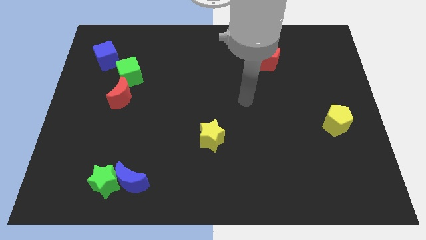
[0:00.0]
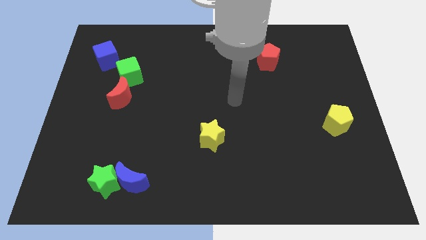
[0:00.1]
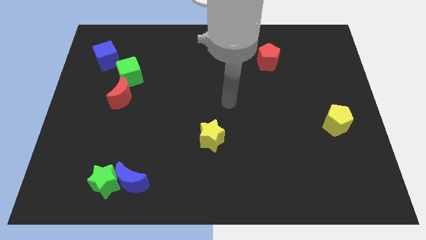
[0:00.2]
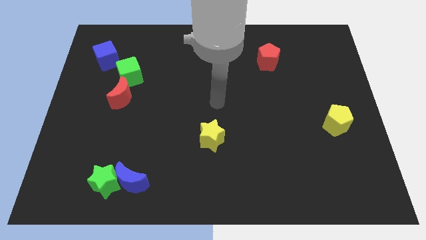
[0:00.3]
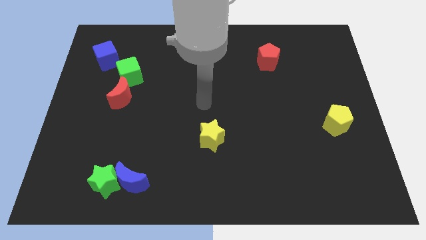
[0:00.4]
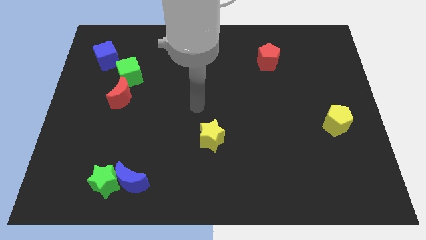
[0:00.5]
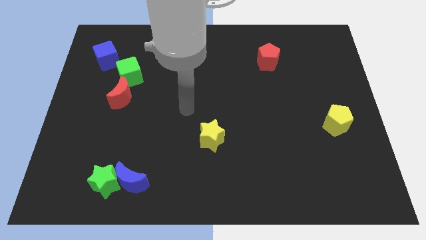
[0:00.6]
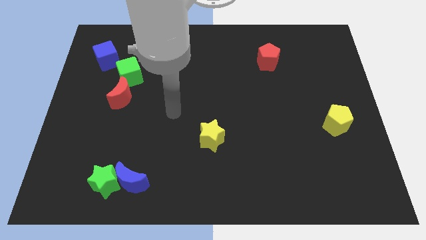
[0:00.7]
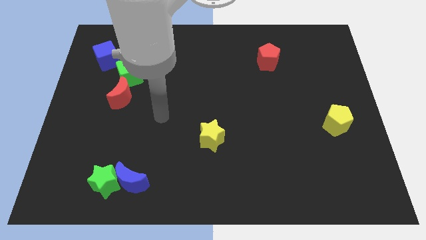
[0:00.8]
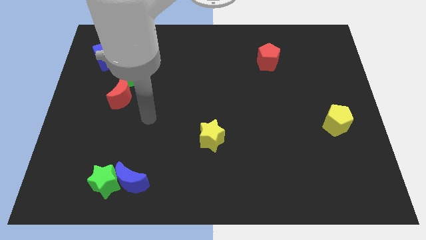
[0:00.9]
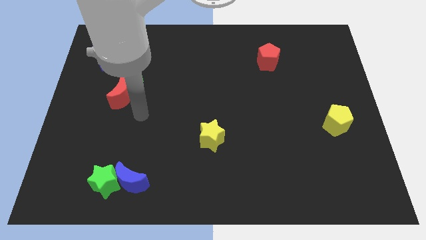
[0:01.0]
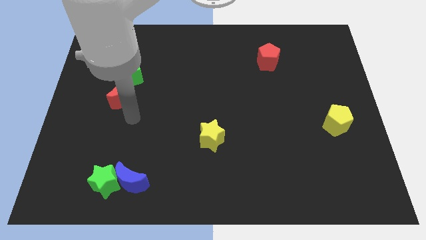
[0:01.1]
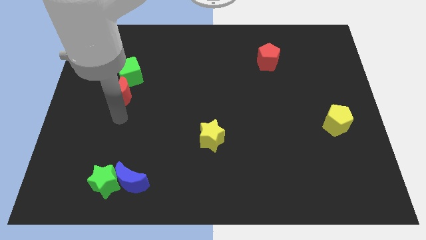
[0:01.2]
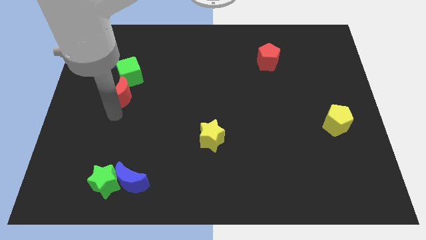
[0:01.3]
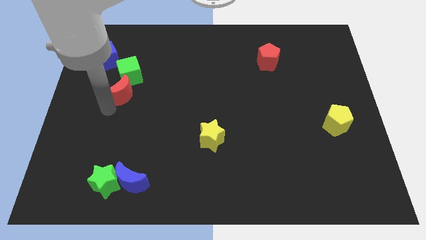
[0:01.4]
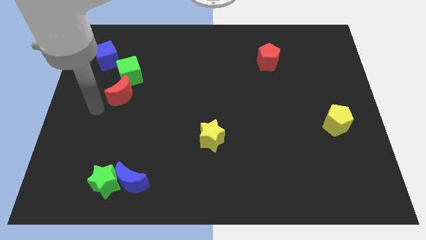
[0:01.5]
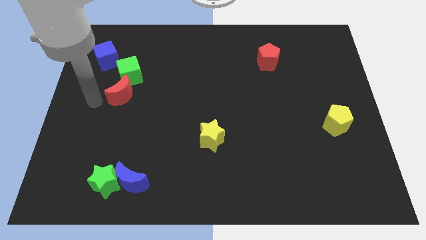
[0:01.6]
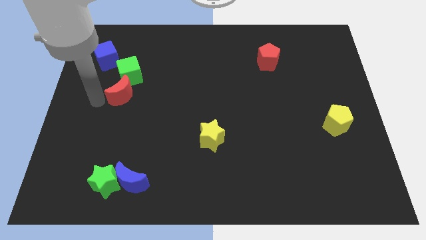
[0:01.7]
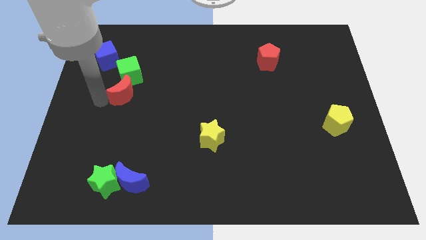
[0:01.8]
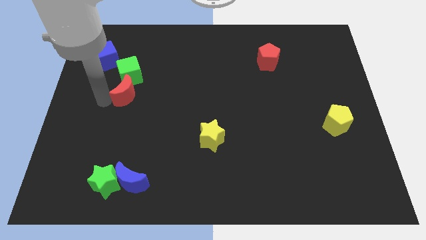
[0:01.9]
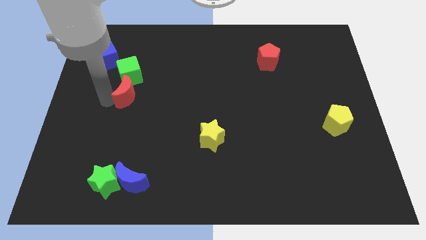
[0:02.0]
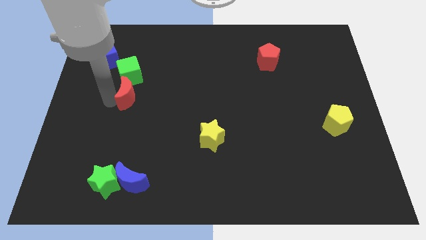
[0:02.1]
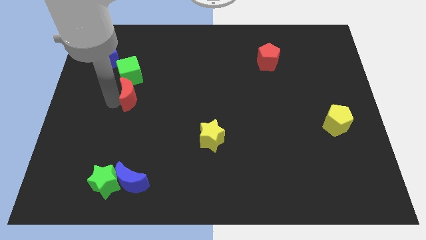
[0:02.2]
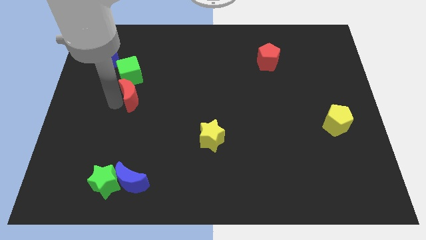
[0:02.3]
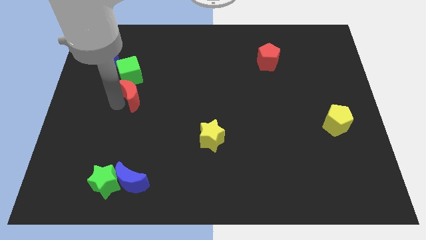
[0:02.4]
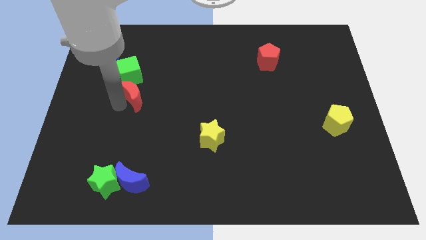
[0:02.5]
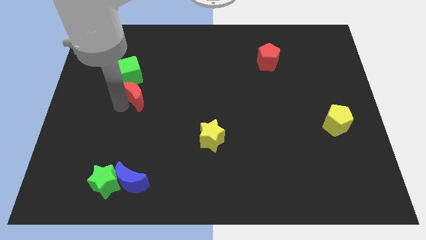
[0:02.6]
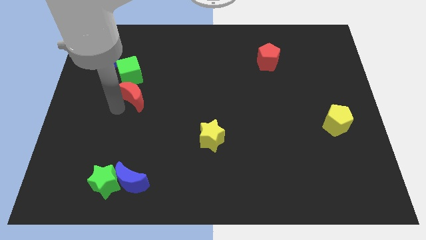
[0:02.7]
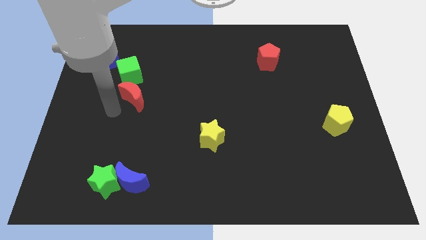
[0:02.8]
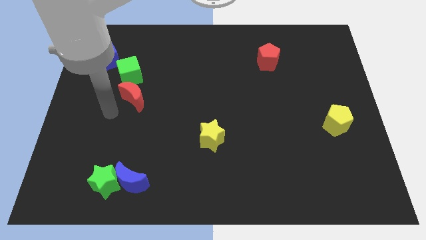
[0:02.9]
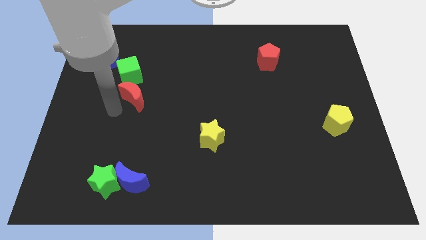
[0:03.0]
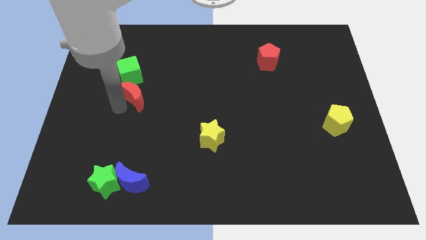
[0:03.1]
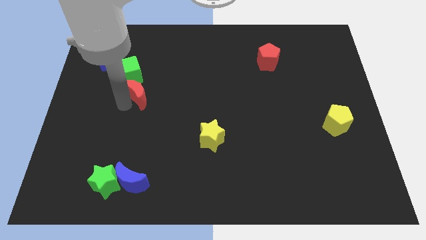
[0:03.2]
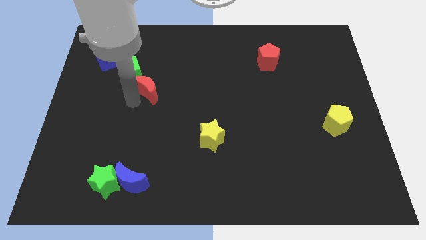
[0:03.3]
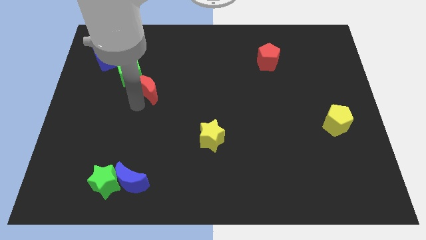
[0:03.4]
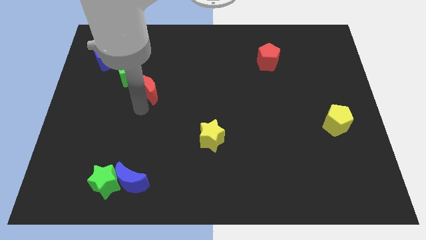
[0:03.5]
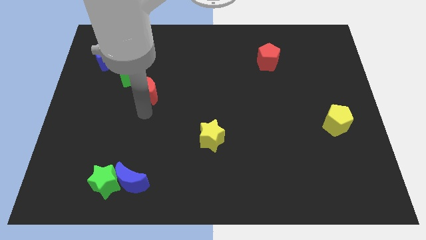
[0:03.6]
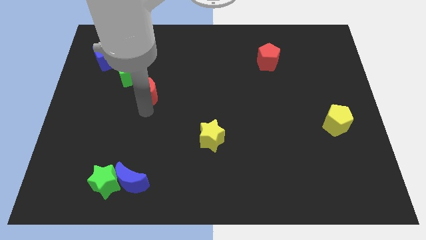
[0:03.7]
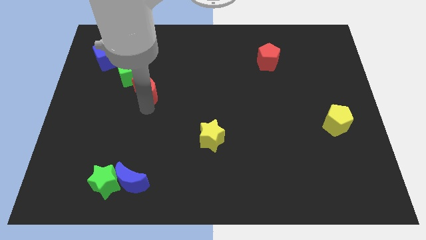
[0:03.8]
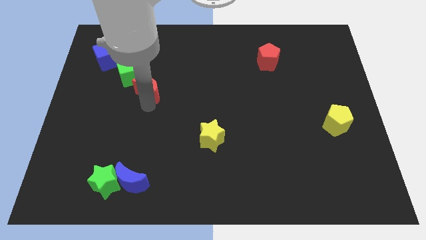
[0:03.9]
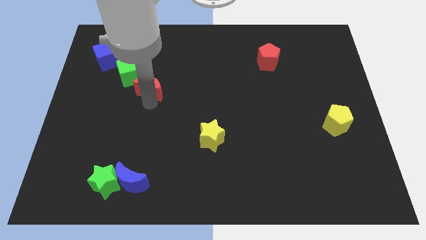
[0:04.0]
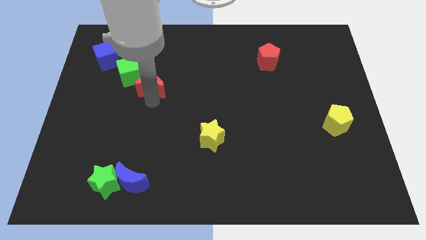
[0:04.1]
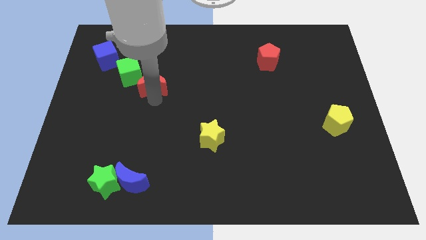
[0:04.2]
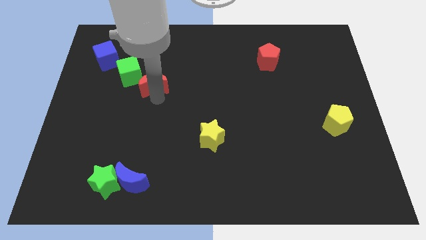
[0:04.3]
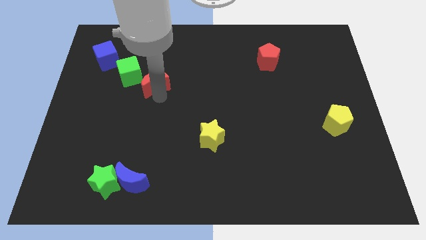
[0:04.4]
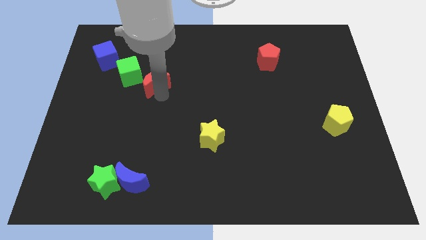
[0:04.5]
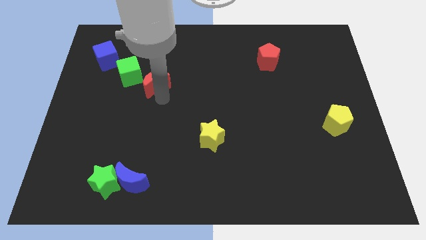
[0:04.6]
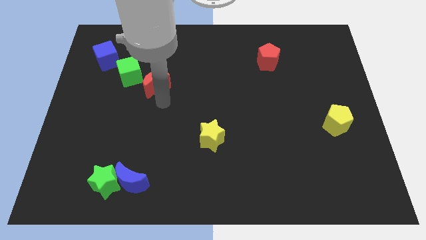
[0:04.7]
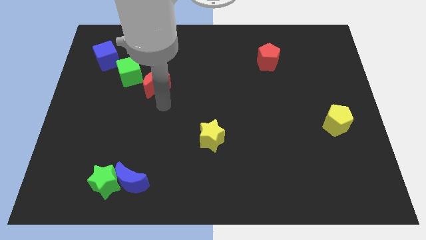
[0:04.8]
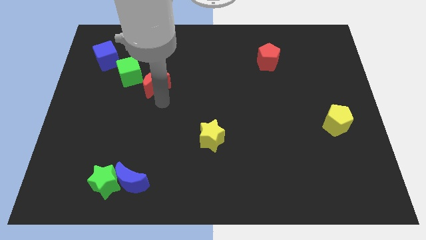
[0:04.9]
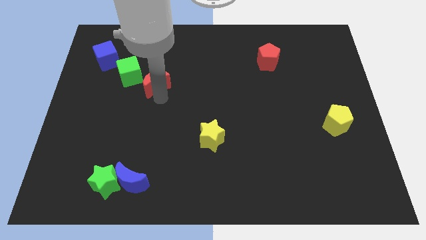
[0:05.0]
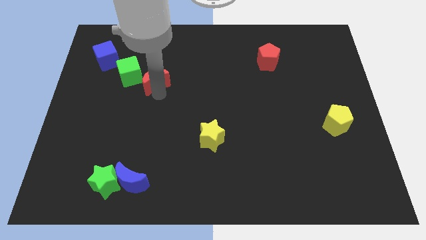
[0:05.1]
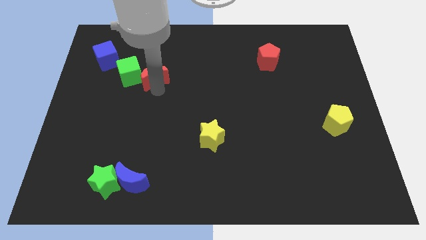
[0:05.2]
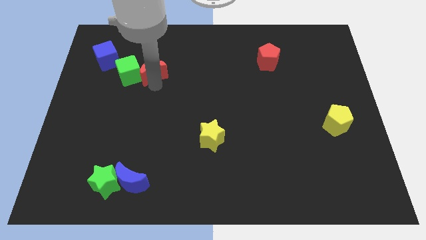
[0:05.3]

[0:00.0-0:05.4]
push the red moon to the top right of the green cube

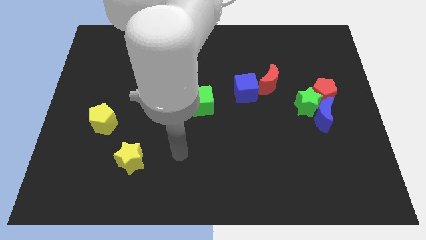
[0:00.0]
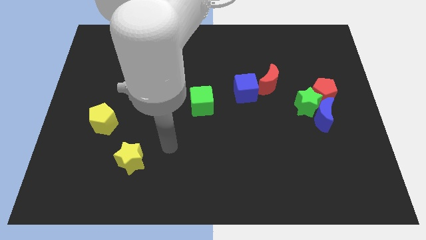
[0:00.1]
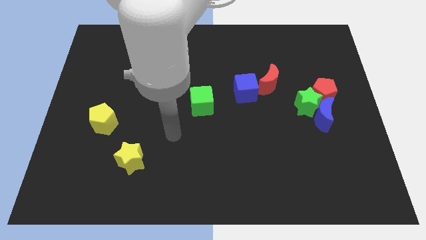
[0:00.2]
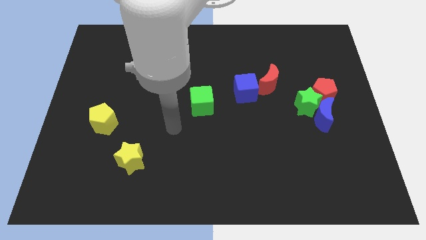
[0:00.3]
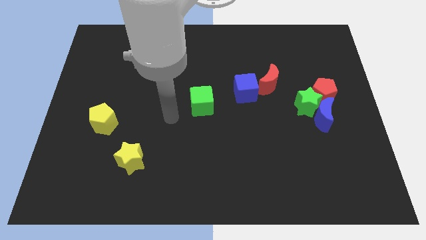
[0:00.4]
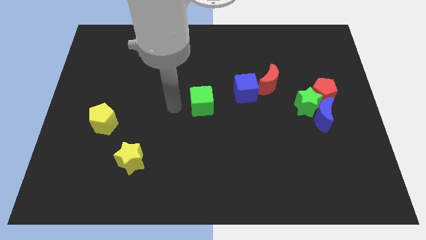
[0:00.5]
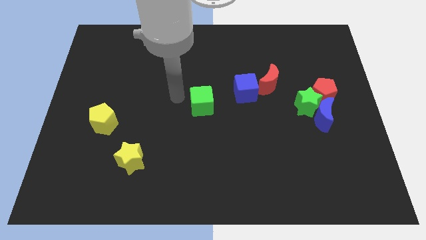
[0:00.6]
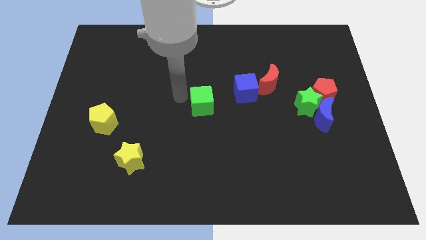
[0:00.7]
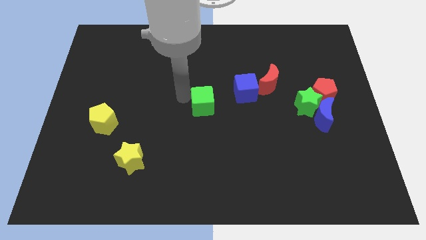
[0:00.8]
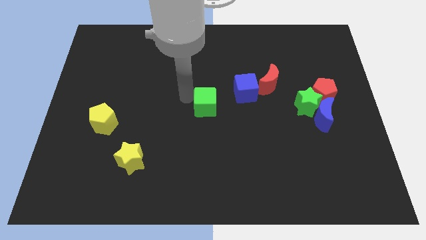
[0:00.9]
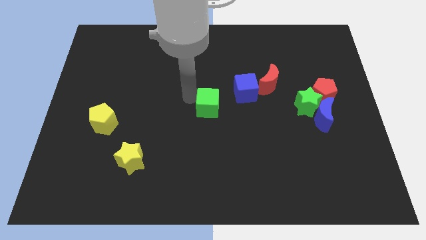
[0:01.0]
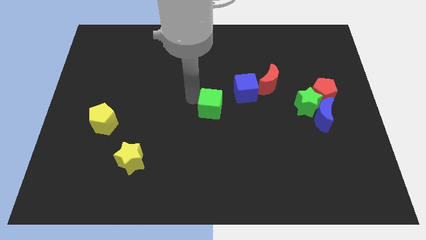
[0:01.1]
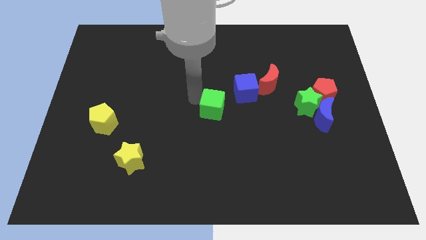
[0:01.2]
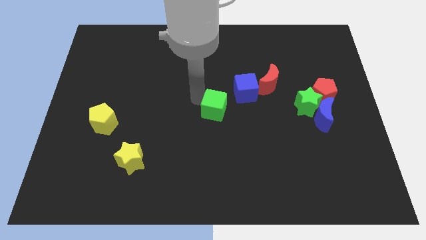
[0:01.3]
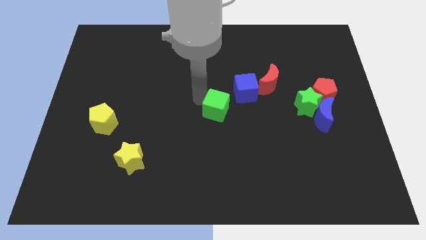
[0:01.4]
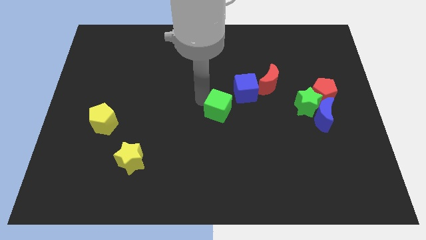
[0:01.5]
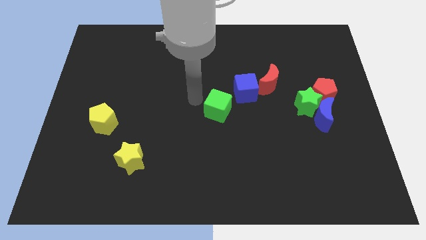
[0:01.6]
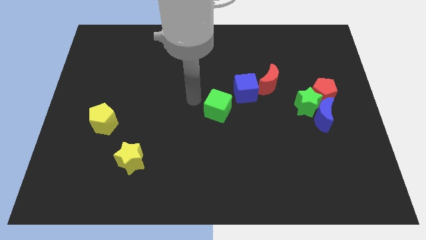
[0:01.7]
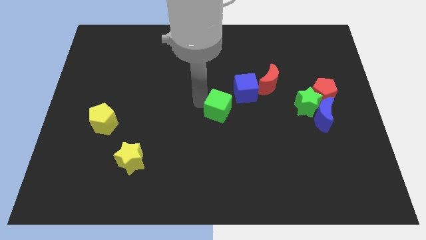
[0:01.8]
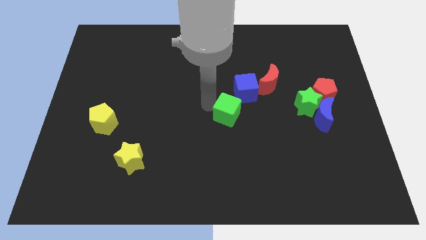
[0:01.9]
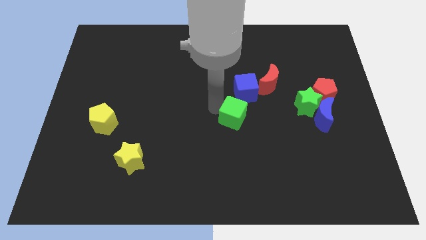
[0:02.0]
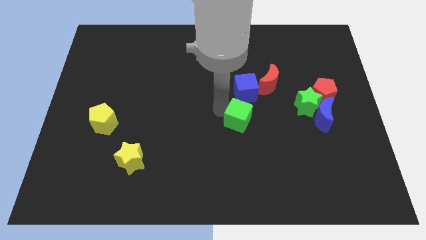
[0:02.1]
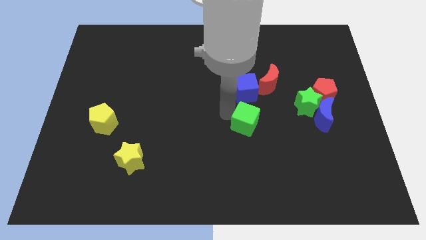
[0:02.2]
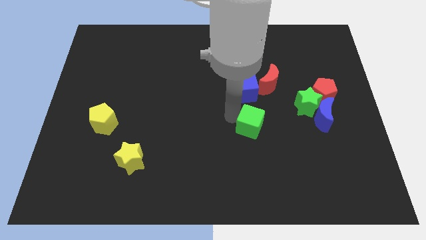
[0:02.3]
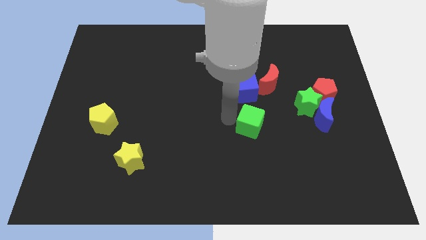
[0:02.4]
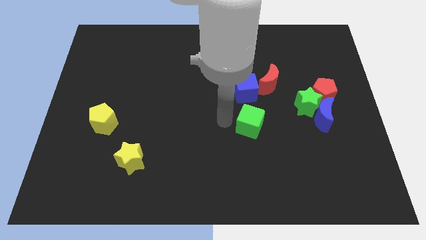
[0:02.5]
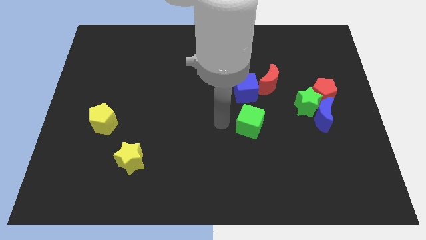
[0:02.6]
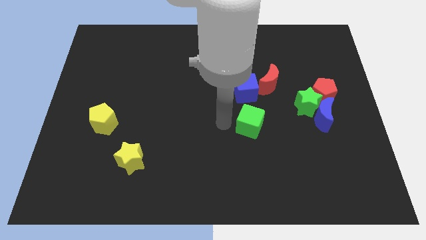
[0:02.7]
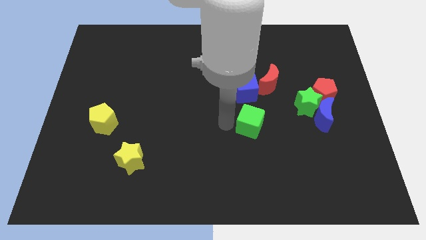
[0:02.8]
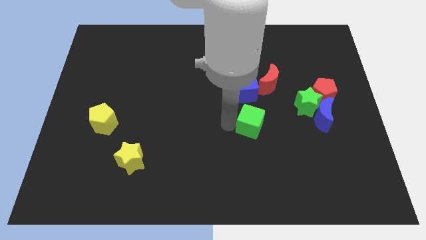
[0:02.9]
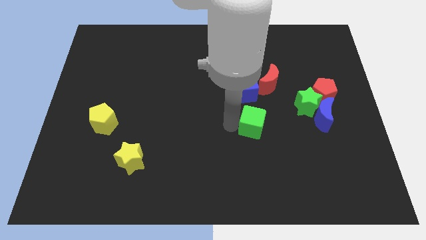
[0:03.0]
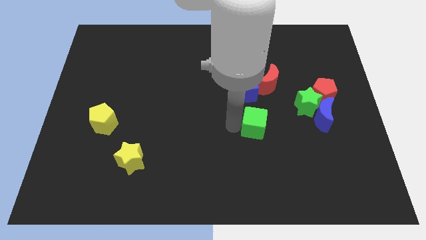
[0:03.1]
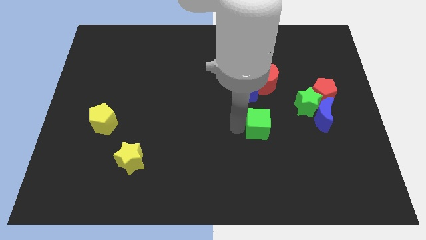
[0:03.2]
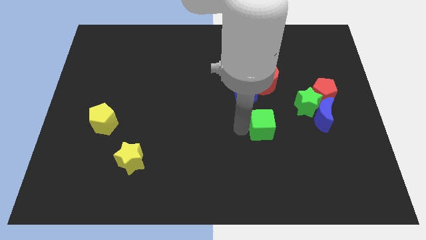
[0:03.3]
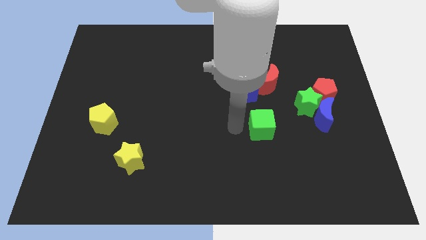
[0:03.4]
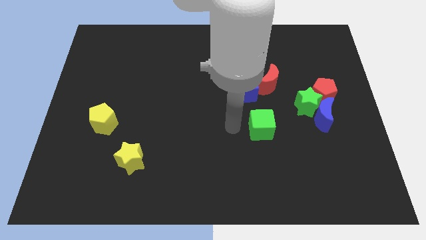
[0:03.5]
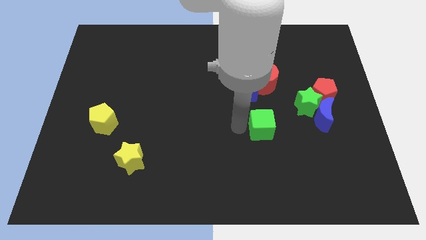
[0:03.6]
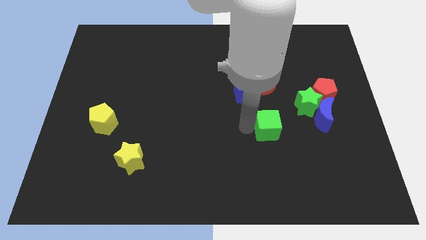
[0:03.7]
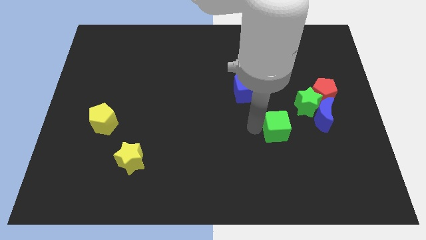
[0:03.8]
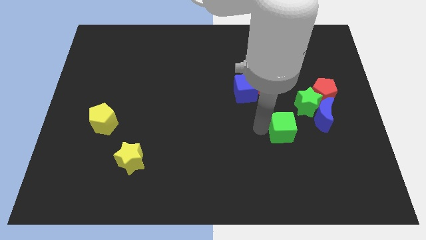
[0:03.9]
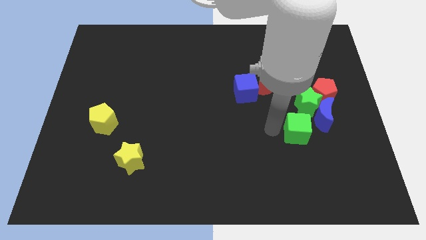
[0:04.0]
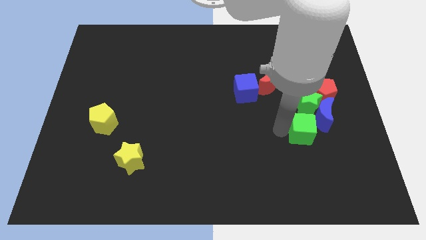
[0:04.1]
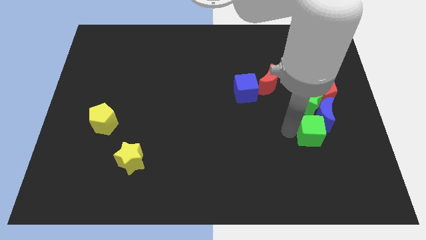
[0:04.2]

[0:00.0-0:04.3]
slide the green cube below the red pentagon
